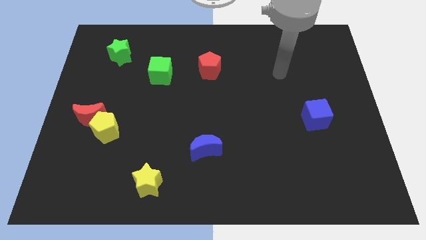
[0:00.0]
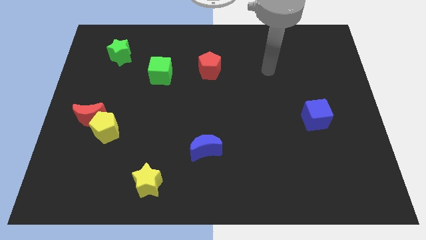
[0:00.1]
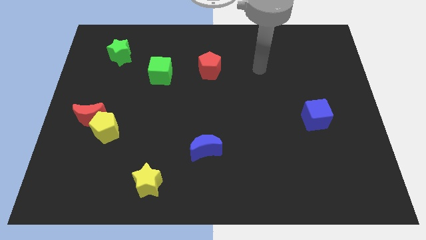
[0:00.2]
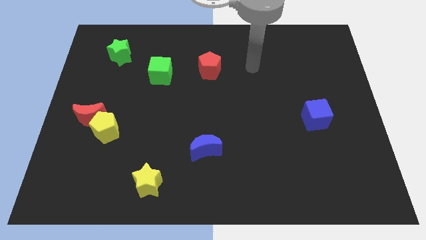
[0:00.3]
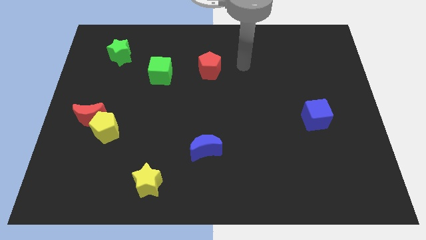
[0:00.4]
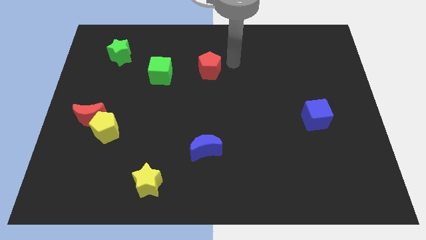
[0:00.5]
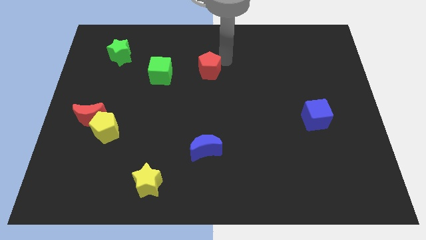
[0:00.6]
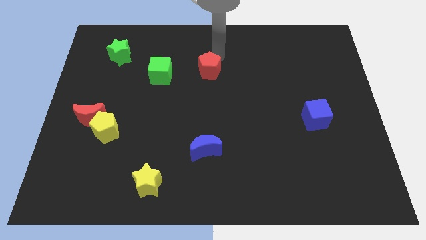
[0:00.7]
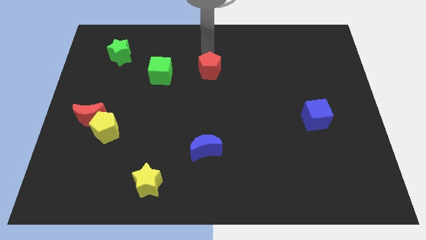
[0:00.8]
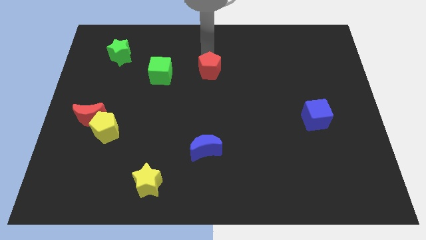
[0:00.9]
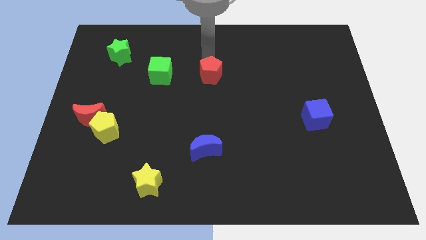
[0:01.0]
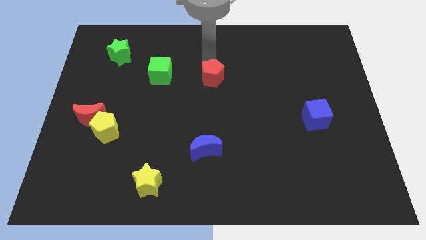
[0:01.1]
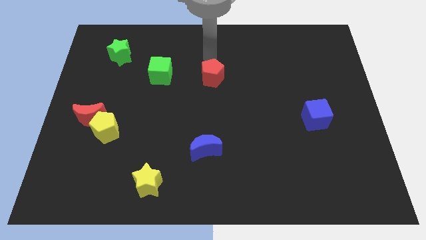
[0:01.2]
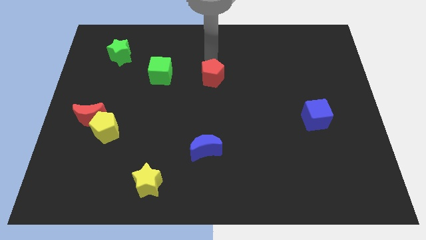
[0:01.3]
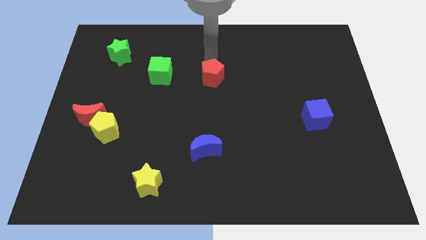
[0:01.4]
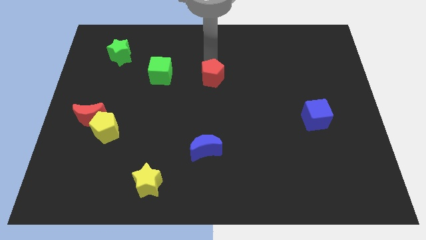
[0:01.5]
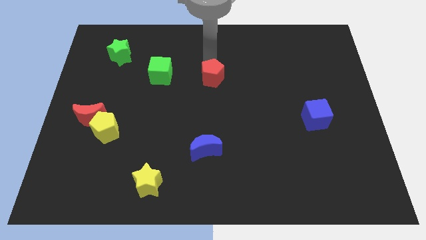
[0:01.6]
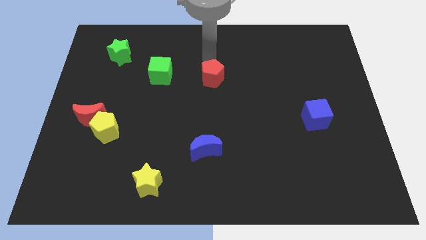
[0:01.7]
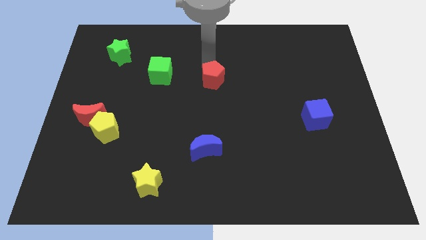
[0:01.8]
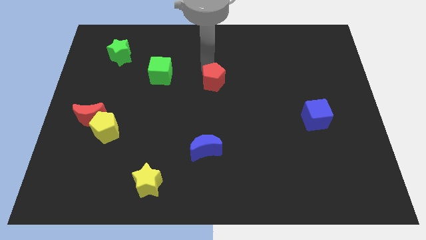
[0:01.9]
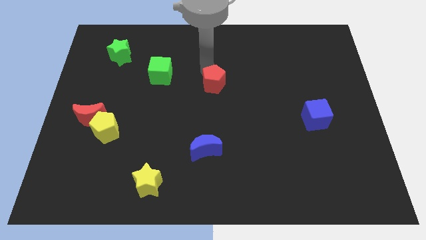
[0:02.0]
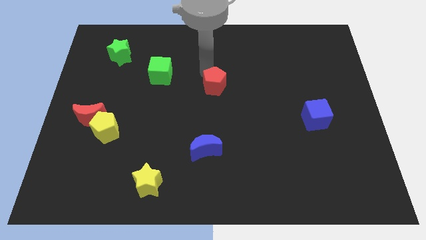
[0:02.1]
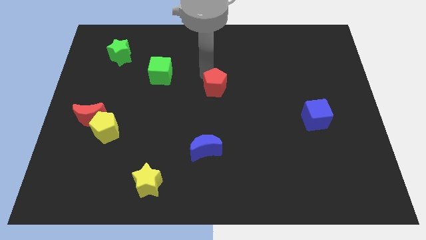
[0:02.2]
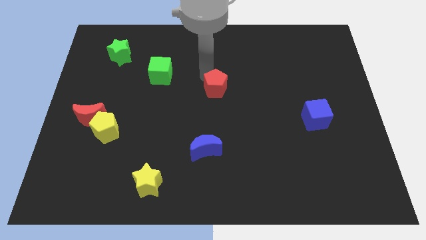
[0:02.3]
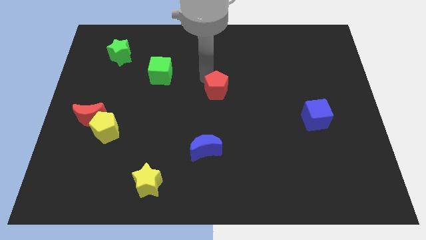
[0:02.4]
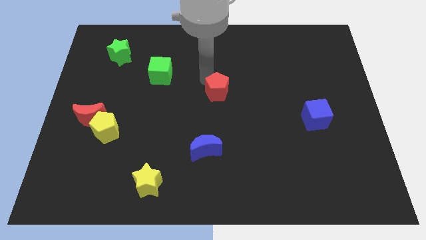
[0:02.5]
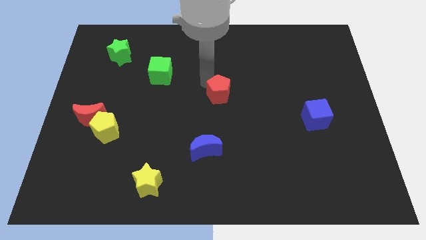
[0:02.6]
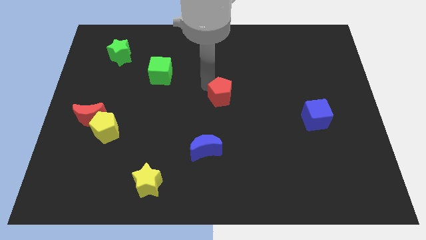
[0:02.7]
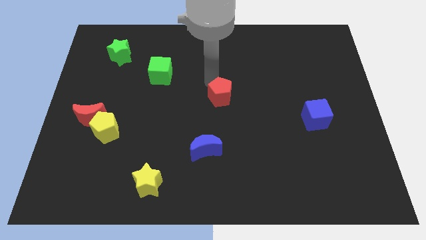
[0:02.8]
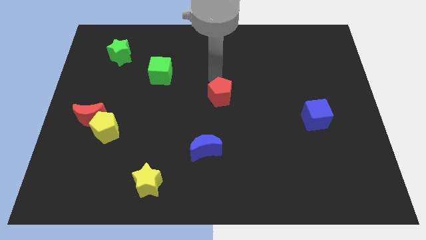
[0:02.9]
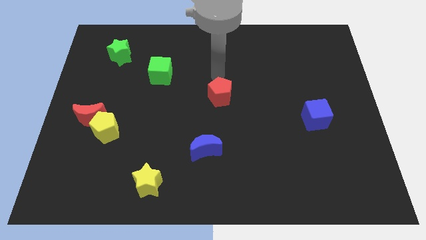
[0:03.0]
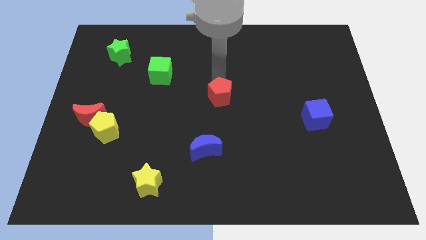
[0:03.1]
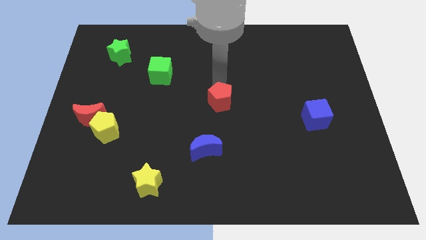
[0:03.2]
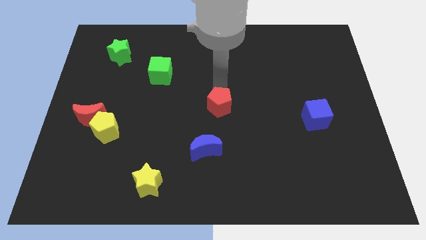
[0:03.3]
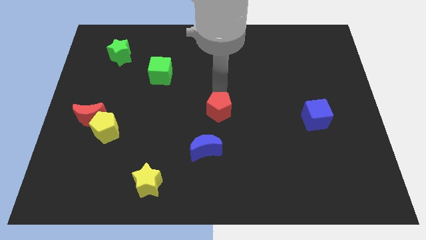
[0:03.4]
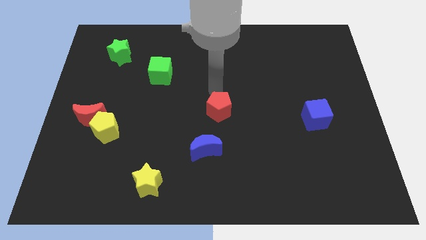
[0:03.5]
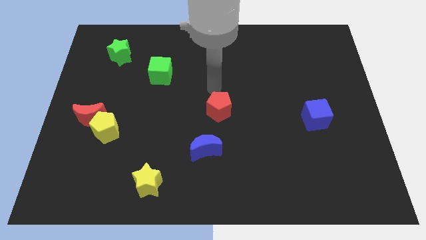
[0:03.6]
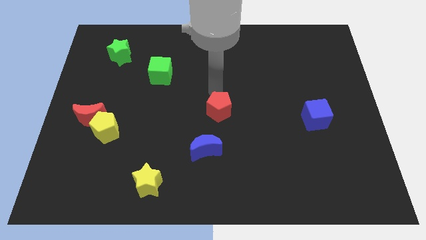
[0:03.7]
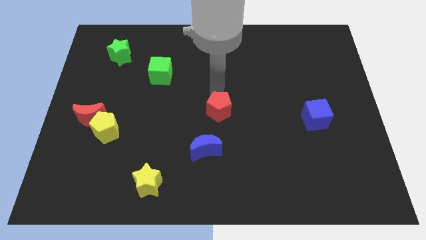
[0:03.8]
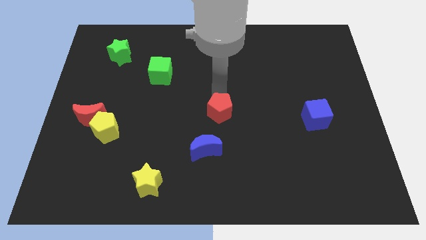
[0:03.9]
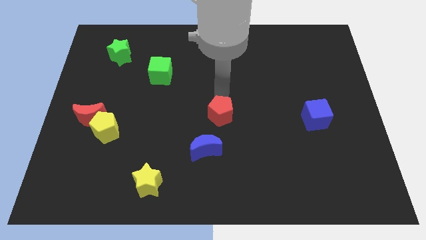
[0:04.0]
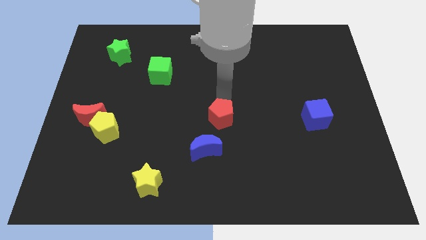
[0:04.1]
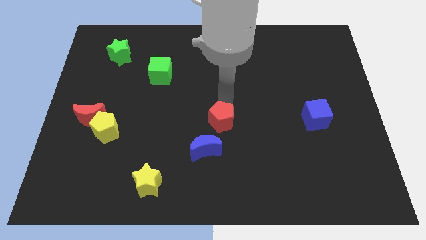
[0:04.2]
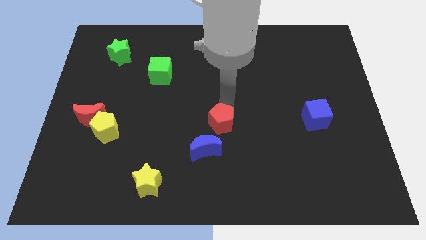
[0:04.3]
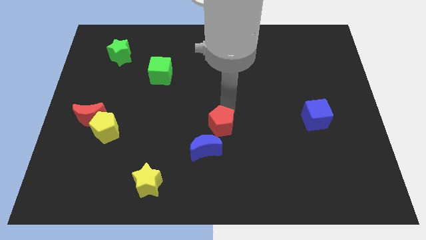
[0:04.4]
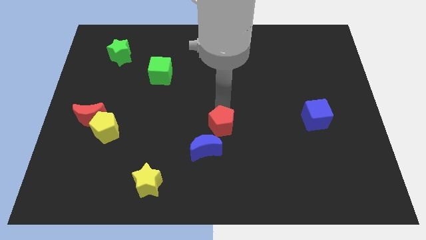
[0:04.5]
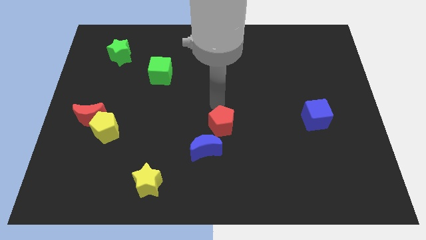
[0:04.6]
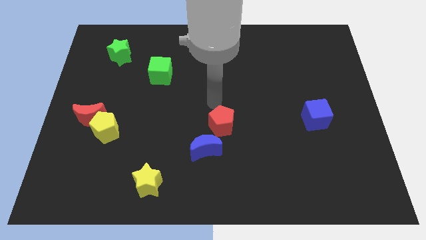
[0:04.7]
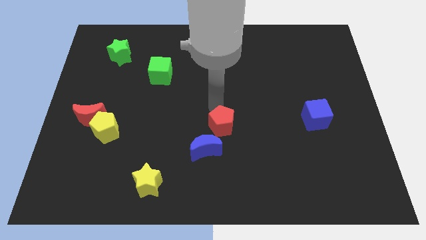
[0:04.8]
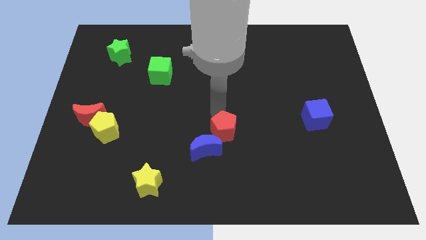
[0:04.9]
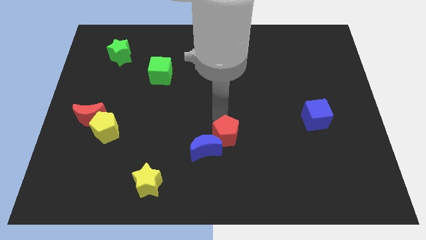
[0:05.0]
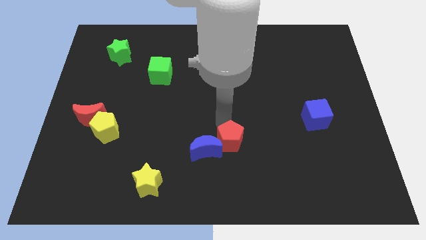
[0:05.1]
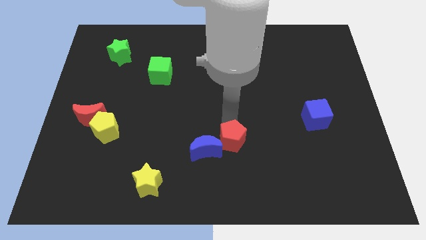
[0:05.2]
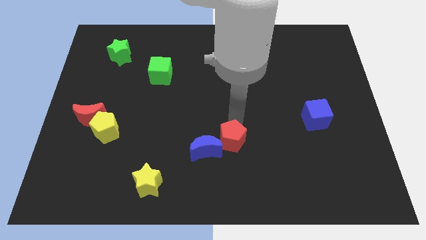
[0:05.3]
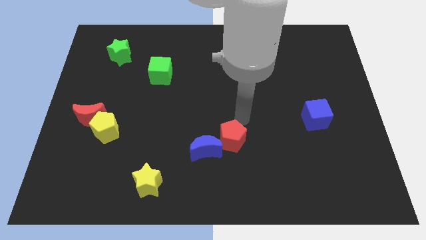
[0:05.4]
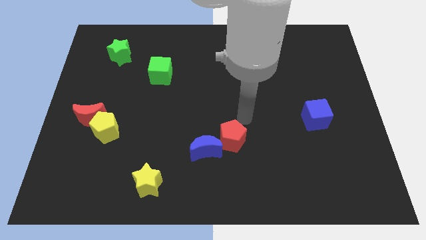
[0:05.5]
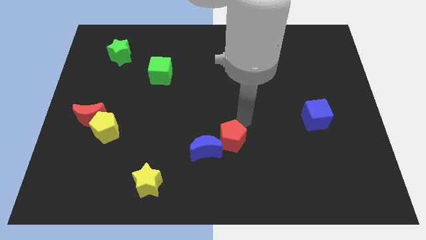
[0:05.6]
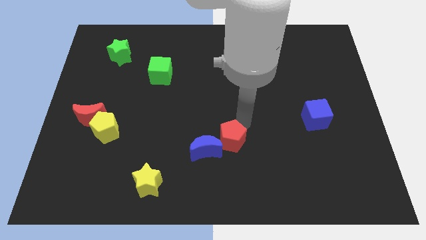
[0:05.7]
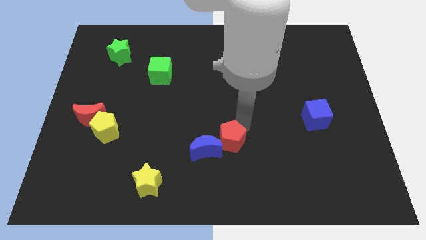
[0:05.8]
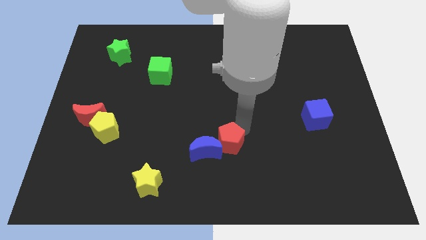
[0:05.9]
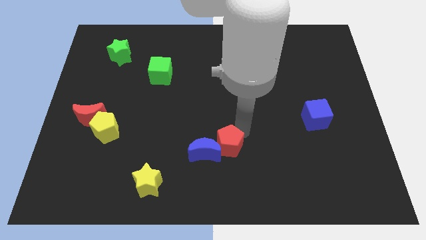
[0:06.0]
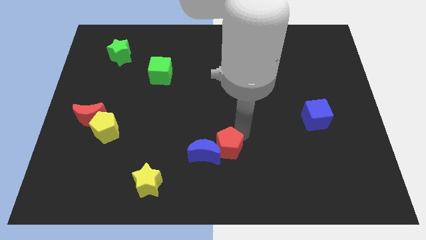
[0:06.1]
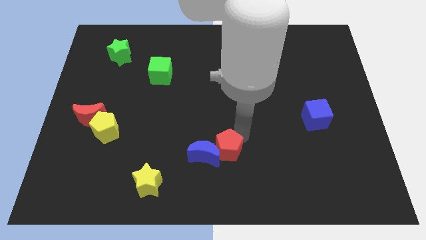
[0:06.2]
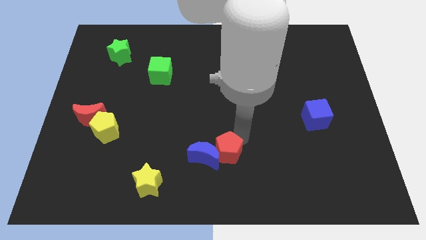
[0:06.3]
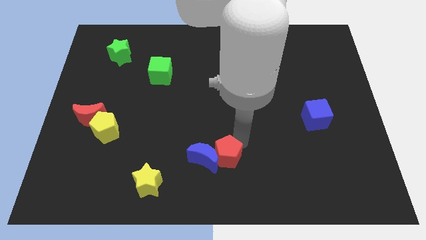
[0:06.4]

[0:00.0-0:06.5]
move the red pentagon to the bottom side
